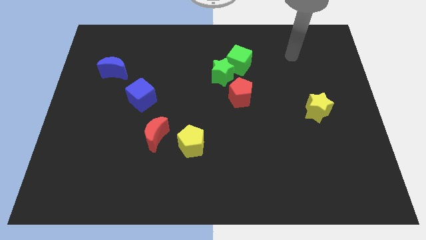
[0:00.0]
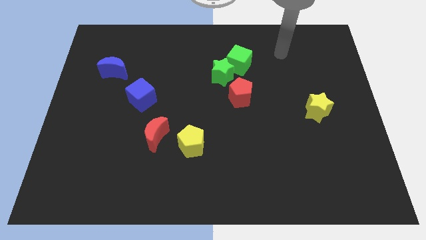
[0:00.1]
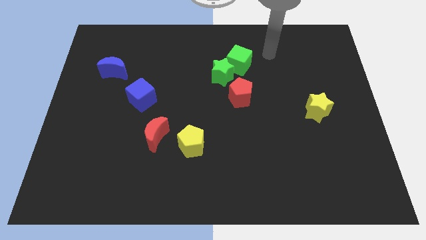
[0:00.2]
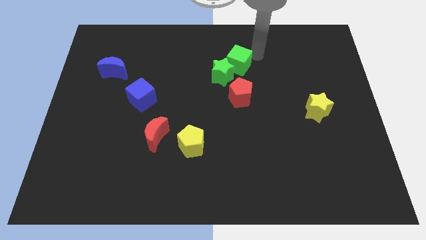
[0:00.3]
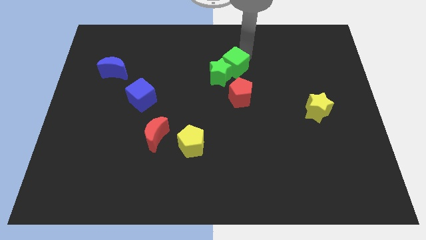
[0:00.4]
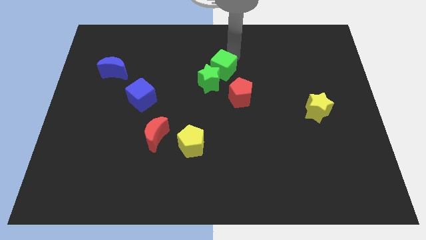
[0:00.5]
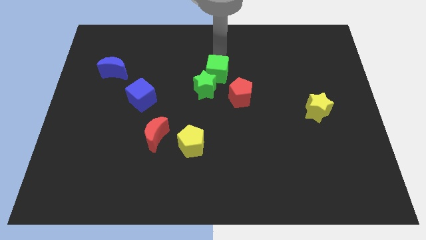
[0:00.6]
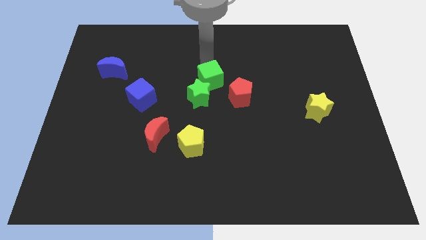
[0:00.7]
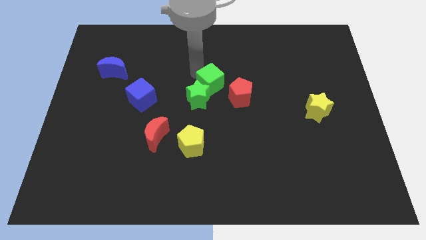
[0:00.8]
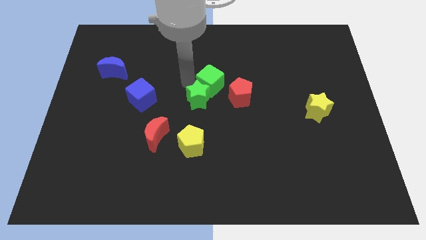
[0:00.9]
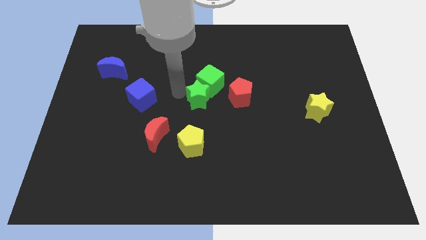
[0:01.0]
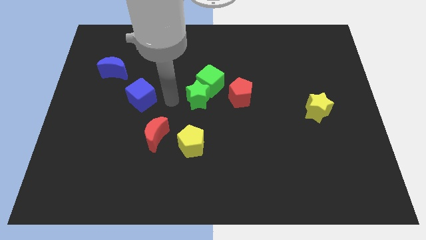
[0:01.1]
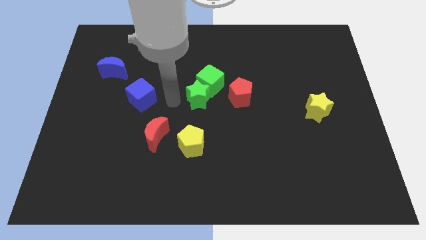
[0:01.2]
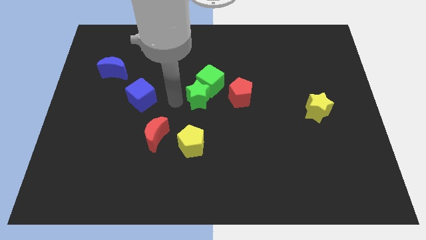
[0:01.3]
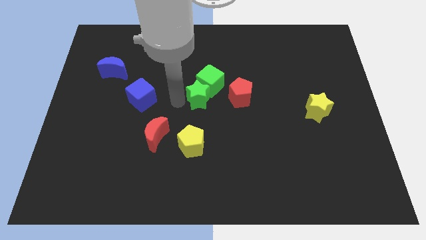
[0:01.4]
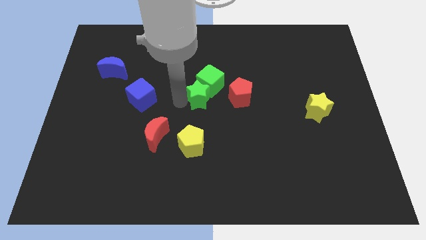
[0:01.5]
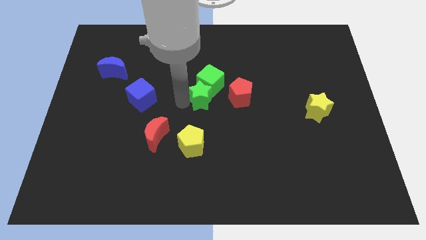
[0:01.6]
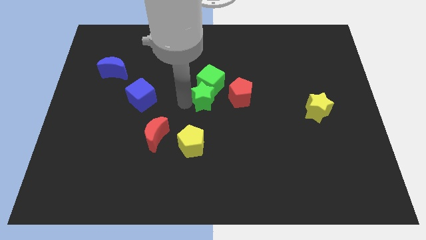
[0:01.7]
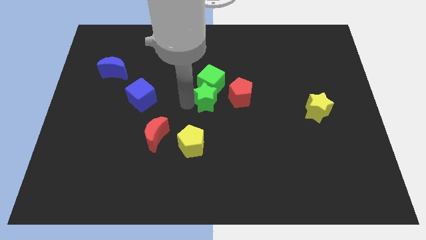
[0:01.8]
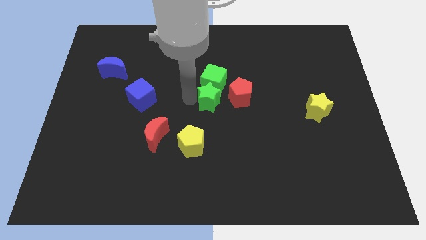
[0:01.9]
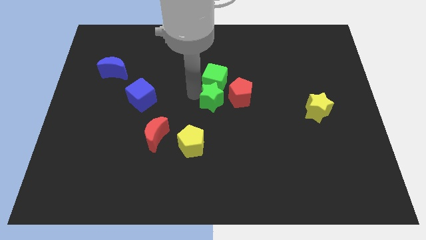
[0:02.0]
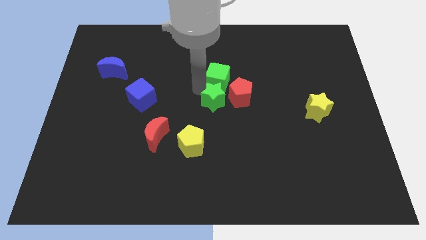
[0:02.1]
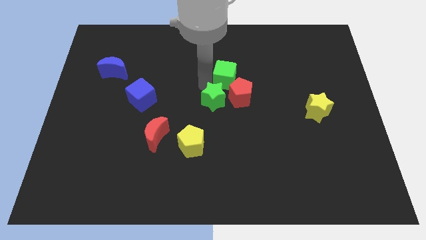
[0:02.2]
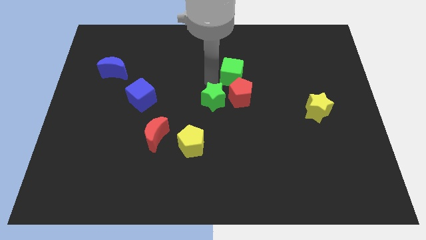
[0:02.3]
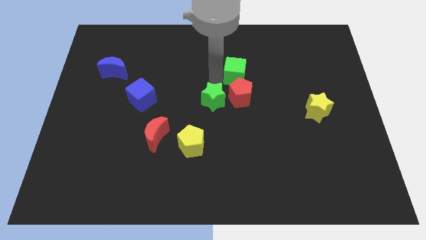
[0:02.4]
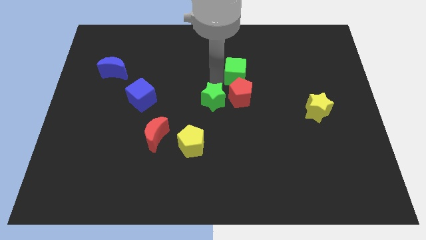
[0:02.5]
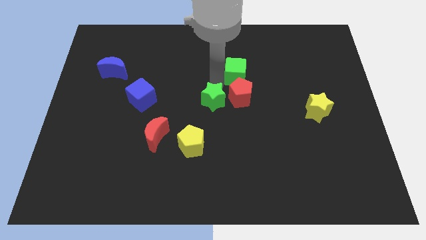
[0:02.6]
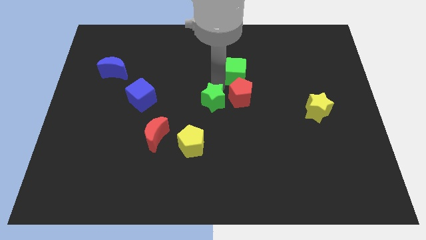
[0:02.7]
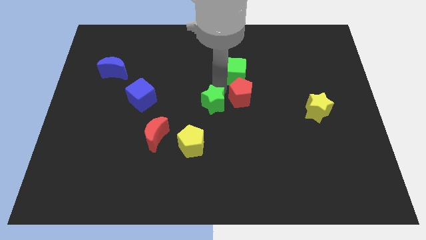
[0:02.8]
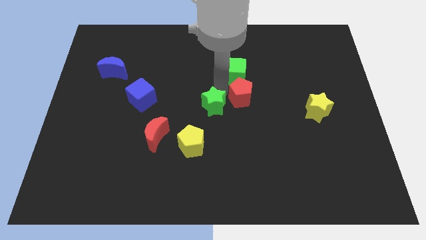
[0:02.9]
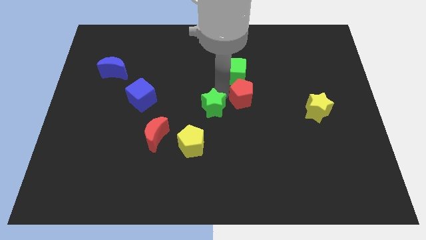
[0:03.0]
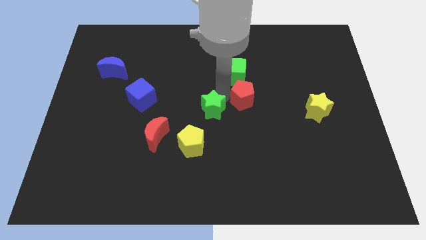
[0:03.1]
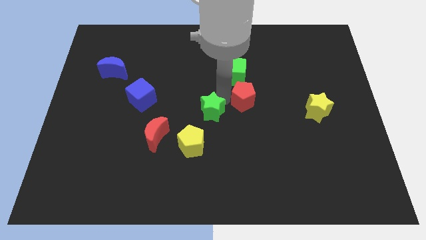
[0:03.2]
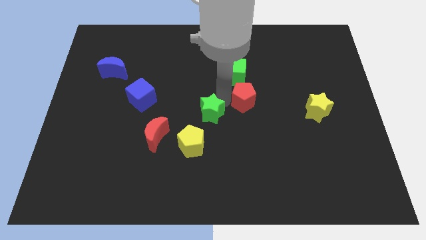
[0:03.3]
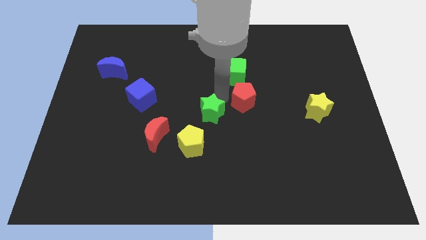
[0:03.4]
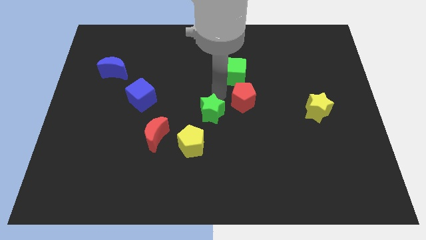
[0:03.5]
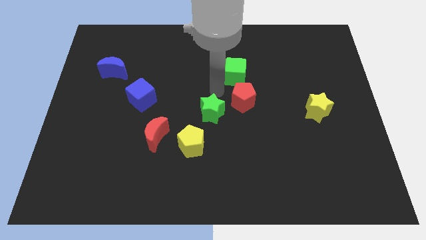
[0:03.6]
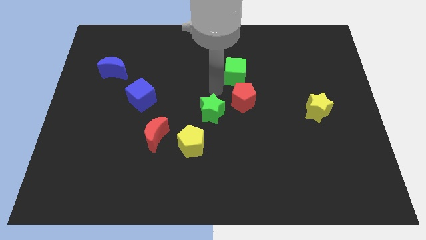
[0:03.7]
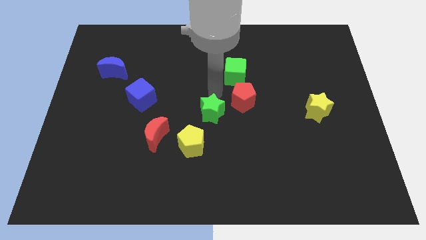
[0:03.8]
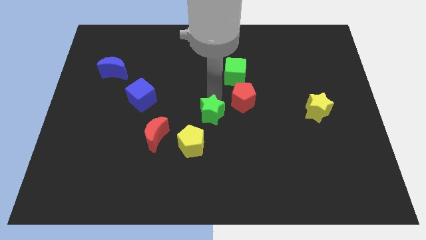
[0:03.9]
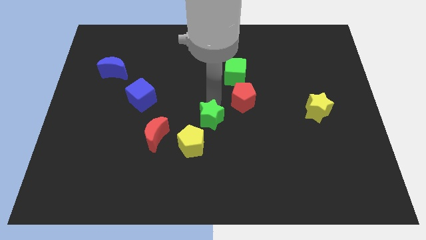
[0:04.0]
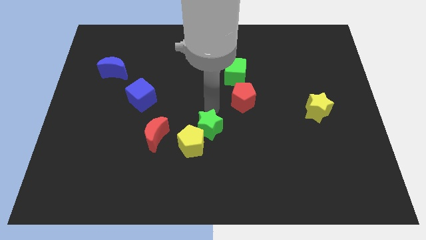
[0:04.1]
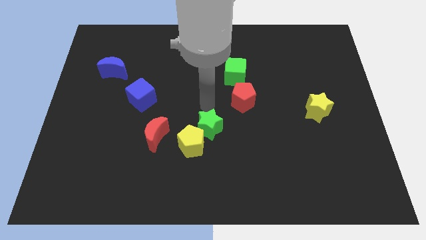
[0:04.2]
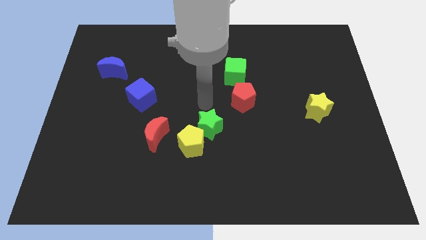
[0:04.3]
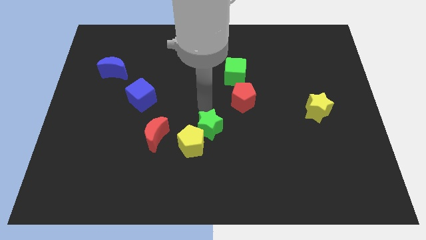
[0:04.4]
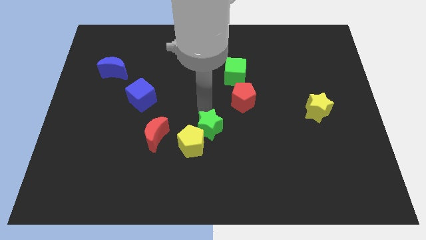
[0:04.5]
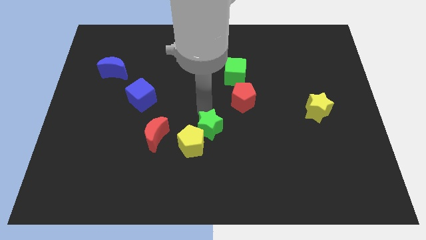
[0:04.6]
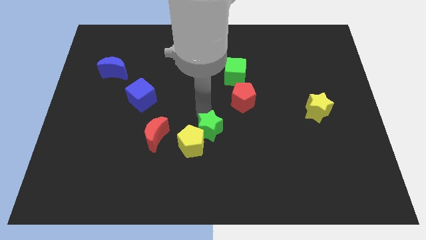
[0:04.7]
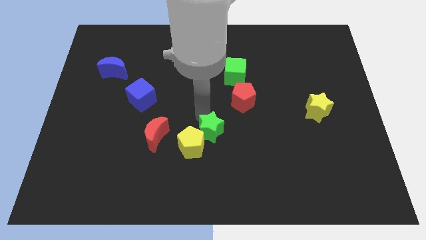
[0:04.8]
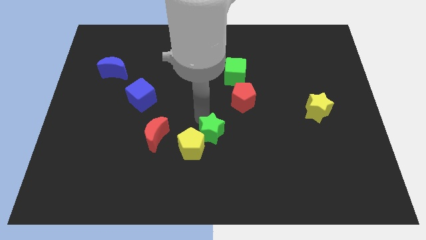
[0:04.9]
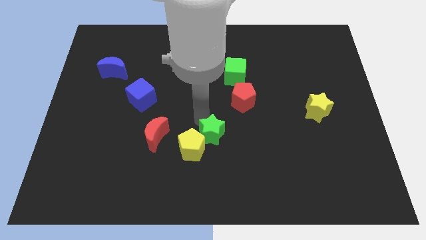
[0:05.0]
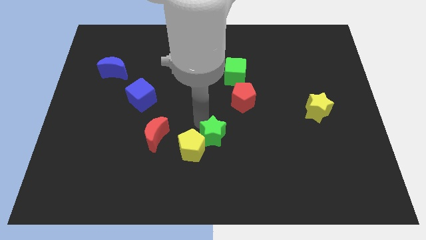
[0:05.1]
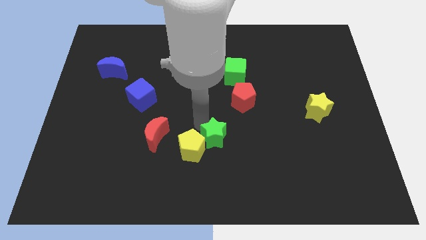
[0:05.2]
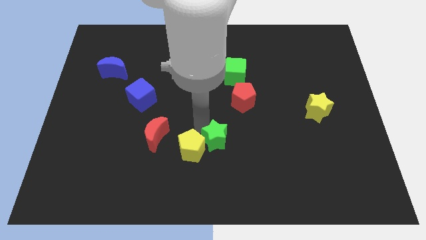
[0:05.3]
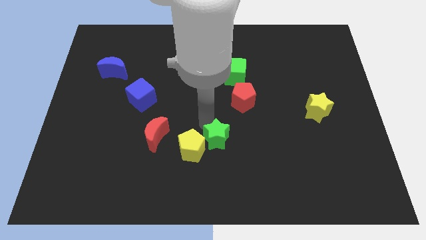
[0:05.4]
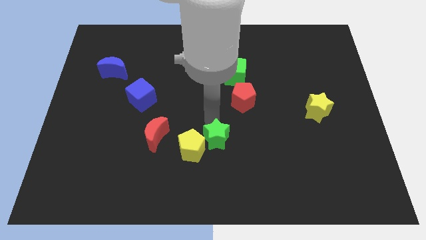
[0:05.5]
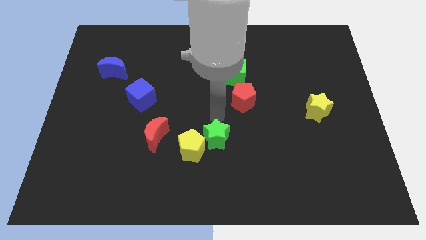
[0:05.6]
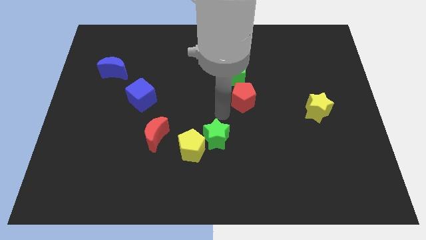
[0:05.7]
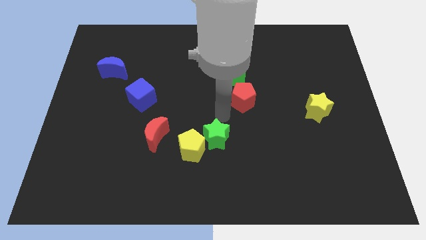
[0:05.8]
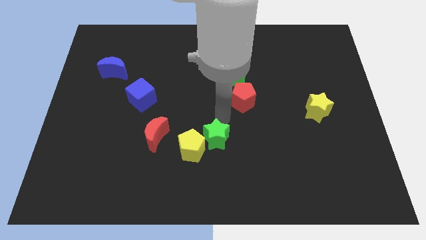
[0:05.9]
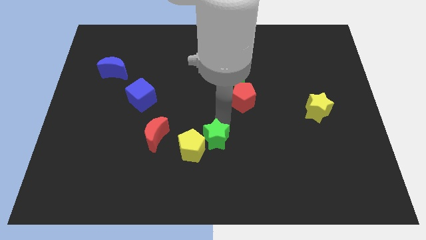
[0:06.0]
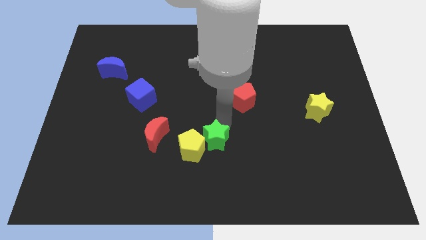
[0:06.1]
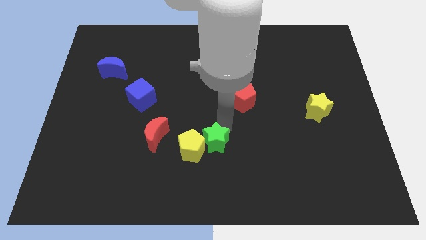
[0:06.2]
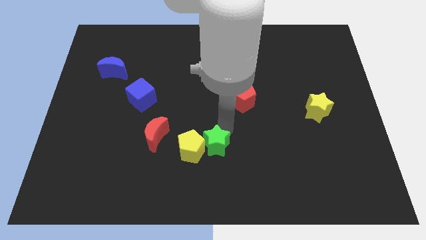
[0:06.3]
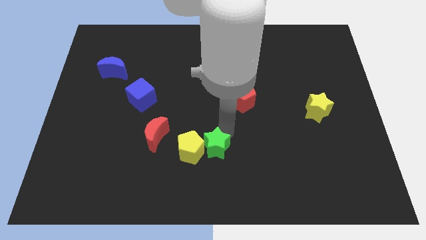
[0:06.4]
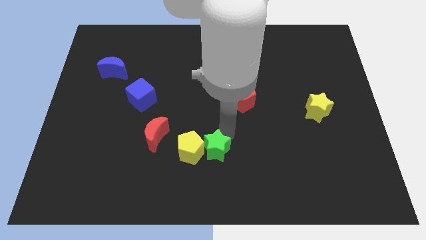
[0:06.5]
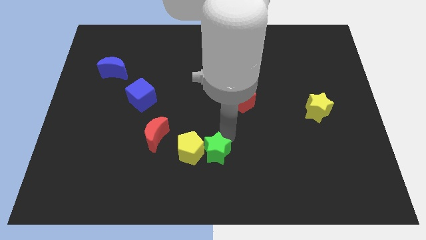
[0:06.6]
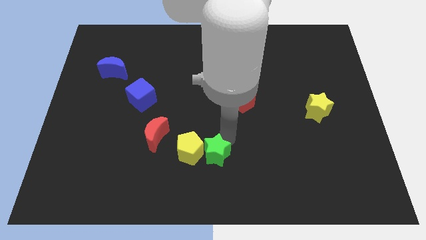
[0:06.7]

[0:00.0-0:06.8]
move the green star to the bottom side

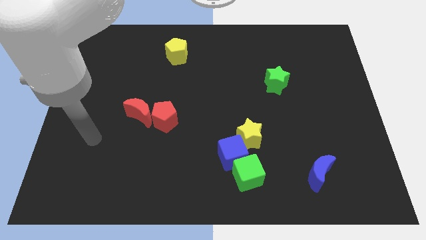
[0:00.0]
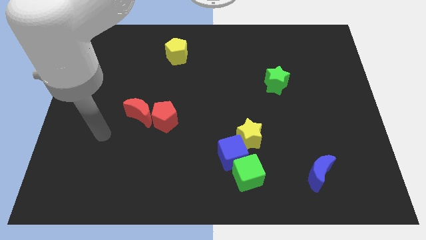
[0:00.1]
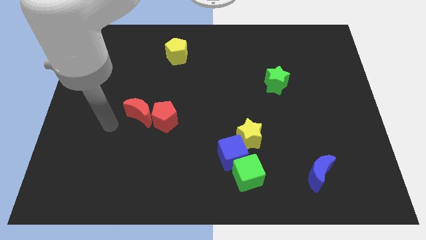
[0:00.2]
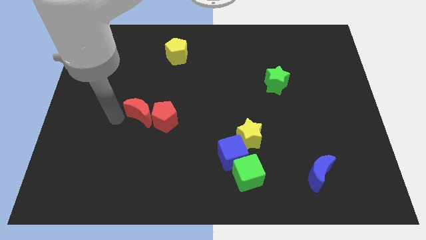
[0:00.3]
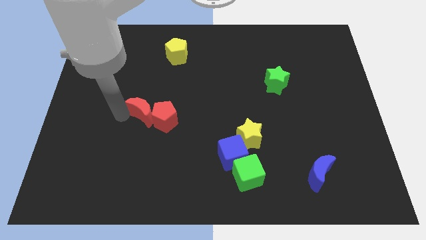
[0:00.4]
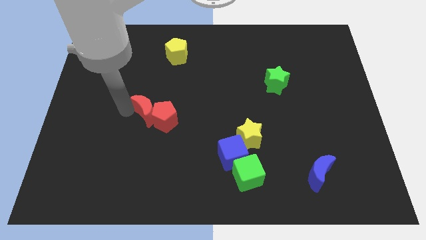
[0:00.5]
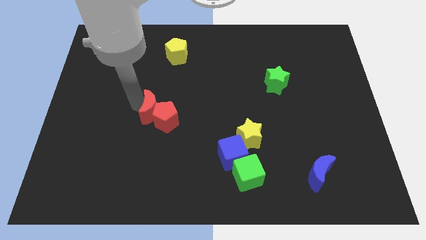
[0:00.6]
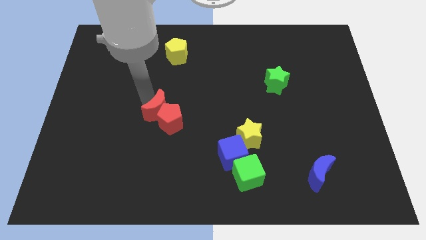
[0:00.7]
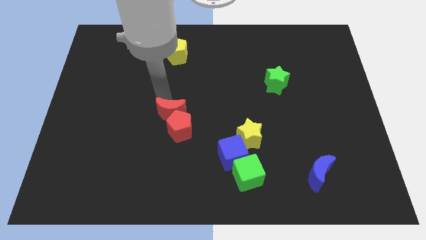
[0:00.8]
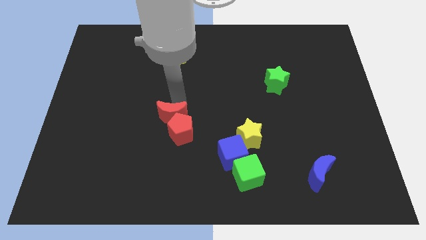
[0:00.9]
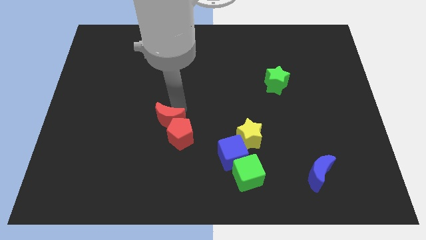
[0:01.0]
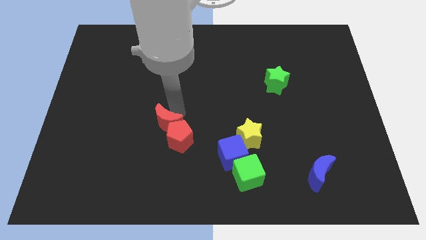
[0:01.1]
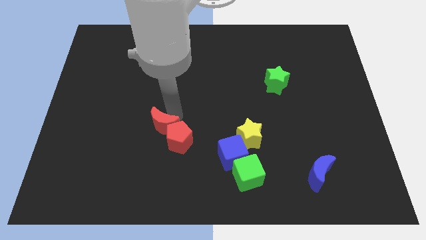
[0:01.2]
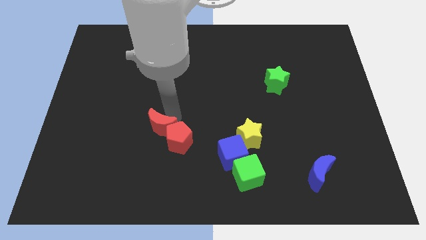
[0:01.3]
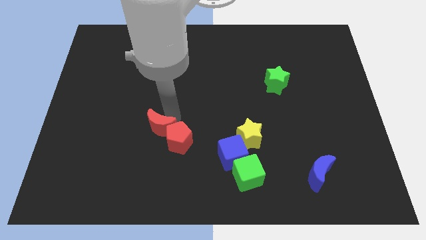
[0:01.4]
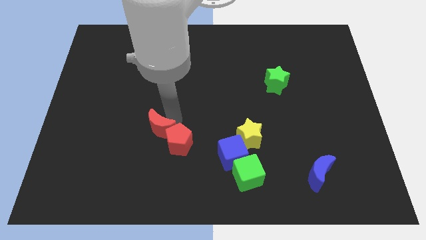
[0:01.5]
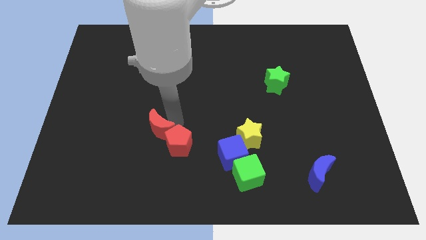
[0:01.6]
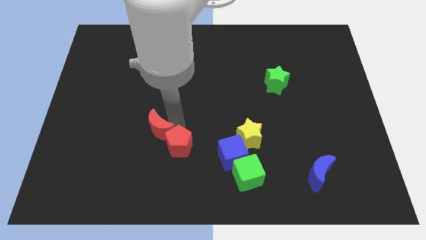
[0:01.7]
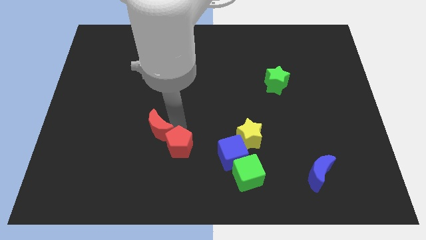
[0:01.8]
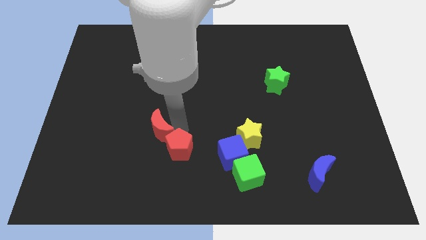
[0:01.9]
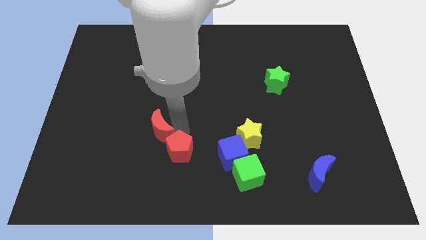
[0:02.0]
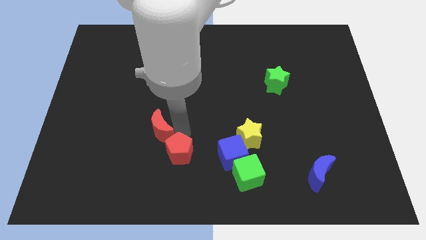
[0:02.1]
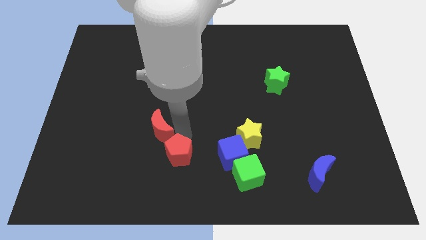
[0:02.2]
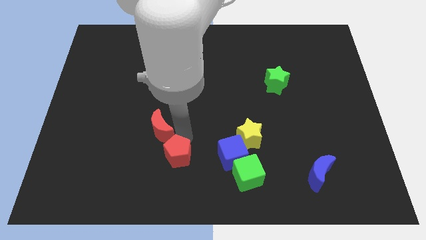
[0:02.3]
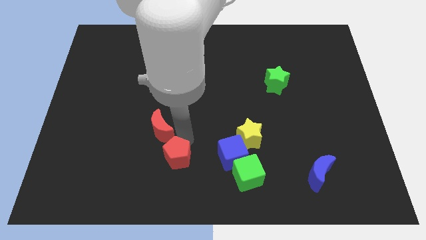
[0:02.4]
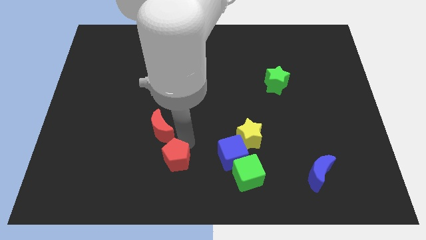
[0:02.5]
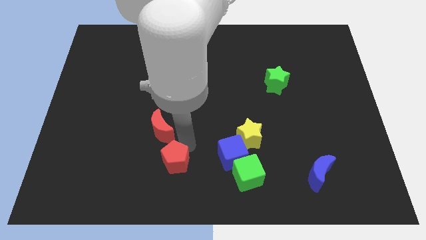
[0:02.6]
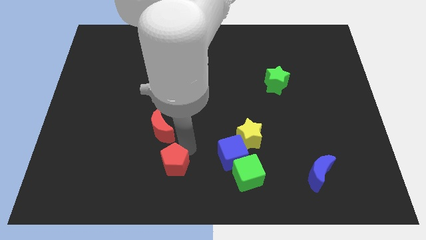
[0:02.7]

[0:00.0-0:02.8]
put the red pentagon to the bottom side
